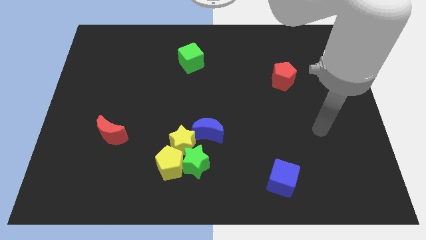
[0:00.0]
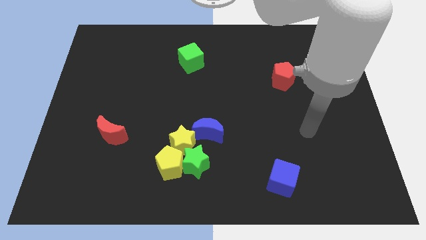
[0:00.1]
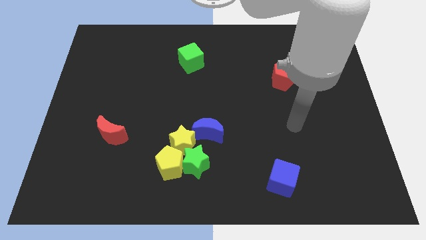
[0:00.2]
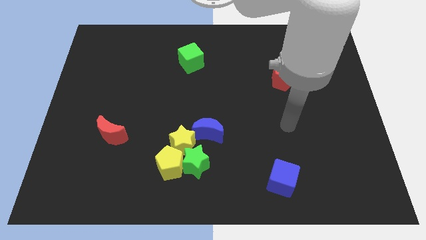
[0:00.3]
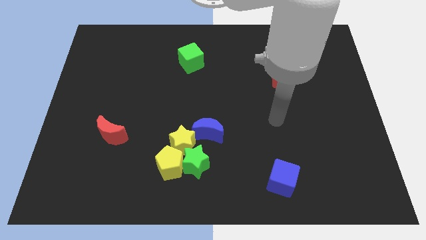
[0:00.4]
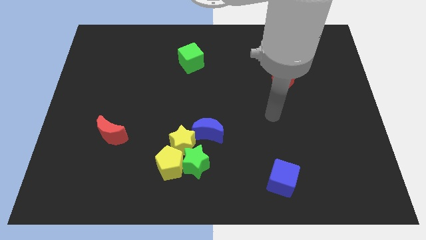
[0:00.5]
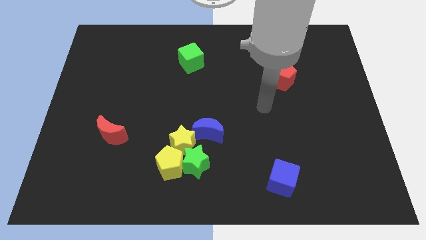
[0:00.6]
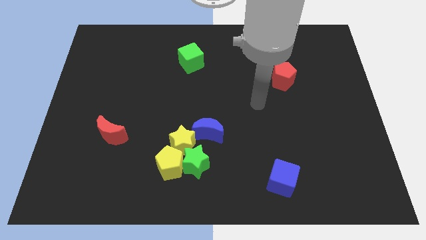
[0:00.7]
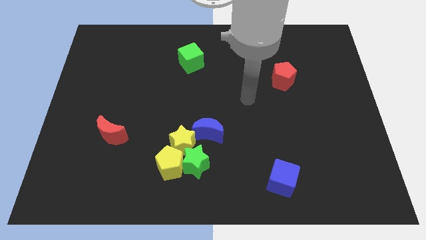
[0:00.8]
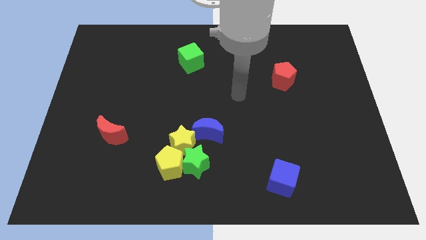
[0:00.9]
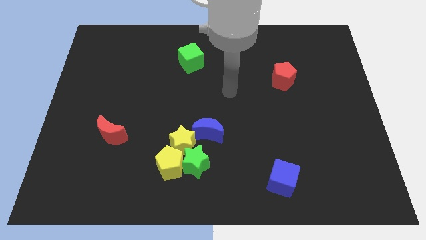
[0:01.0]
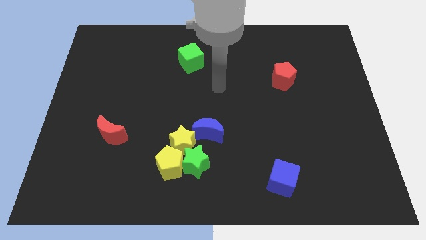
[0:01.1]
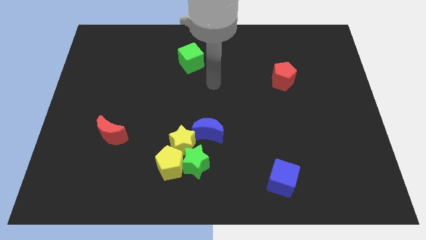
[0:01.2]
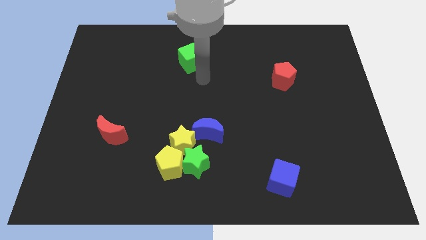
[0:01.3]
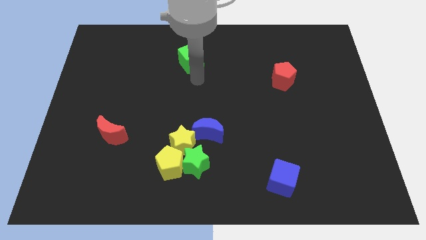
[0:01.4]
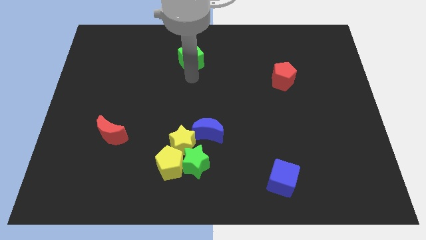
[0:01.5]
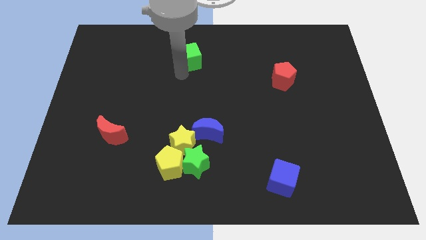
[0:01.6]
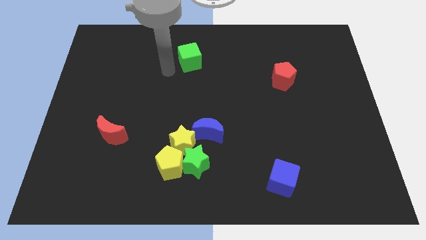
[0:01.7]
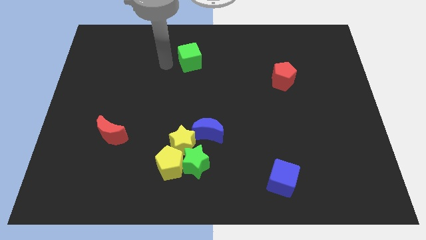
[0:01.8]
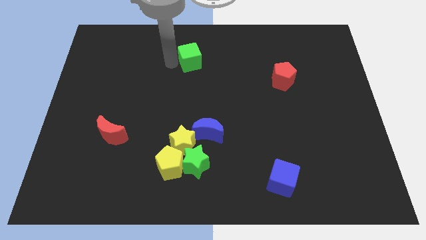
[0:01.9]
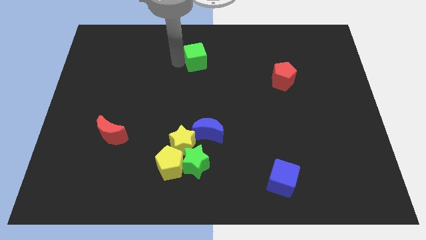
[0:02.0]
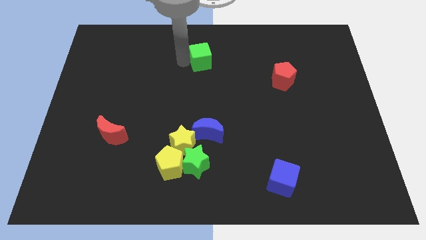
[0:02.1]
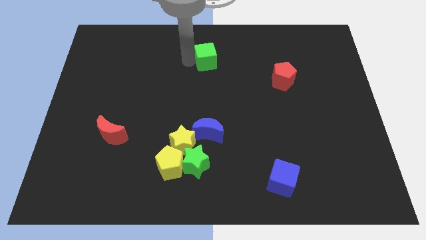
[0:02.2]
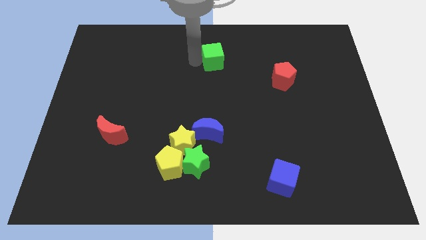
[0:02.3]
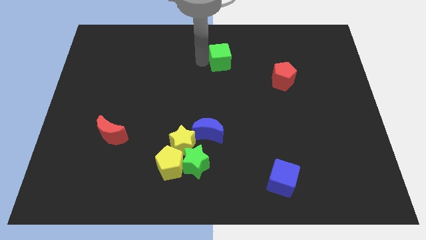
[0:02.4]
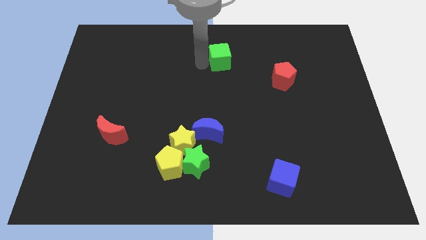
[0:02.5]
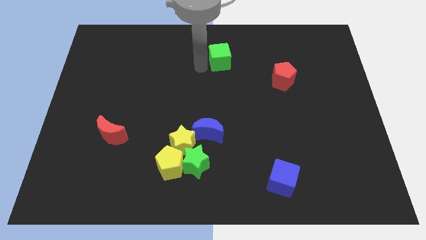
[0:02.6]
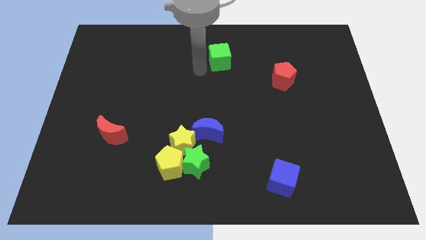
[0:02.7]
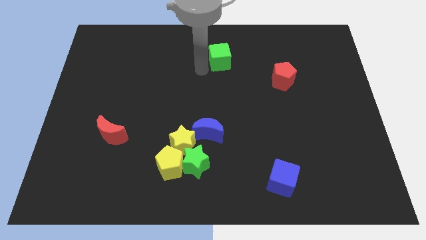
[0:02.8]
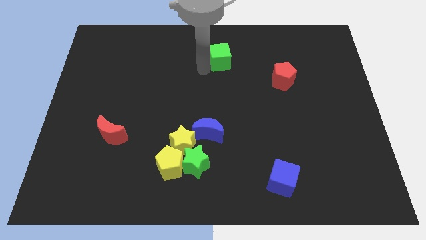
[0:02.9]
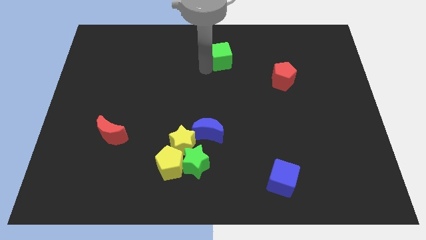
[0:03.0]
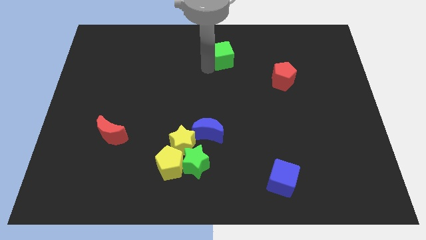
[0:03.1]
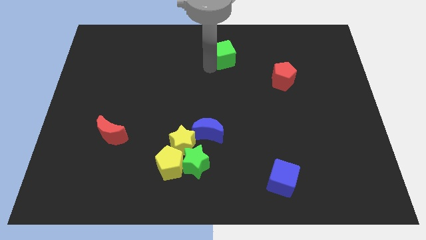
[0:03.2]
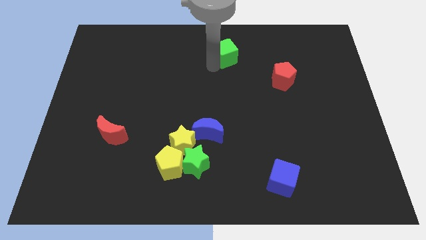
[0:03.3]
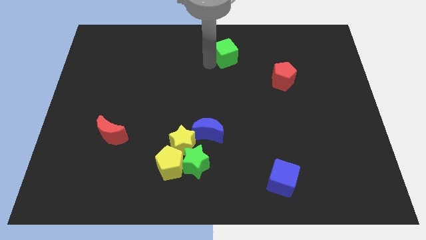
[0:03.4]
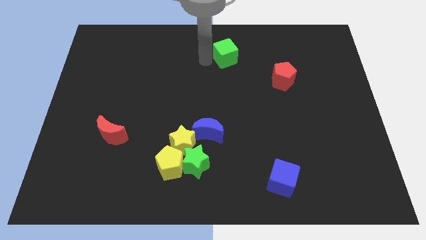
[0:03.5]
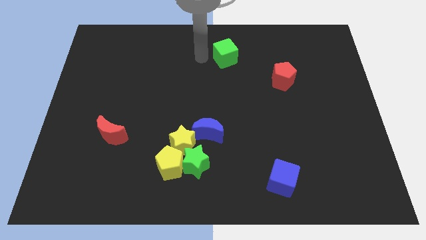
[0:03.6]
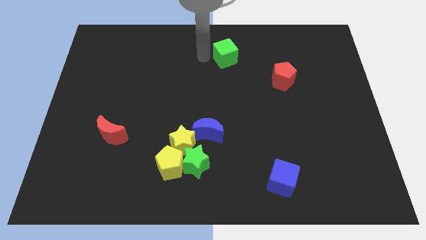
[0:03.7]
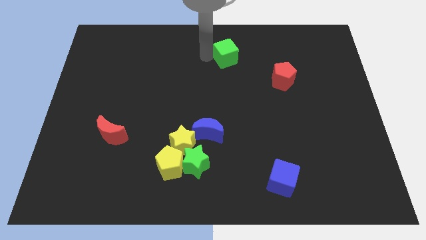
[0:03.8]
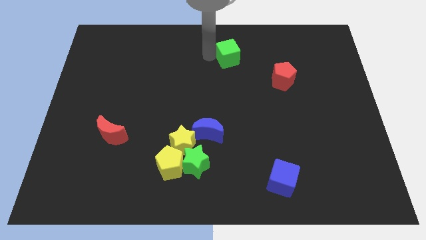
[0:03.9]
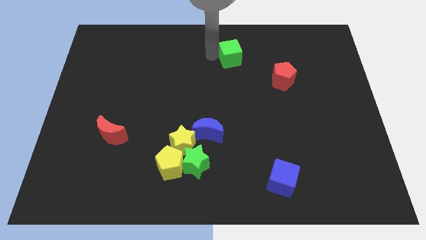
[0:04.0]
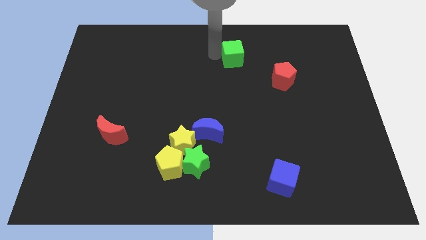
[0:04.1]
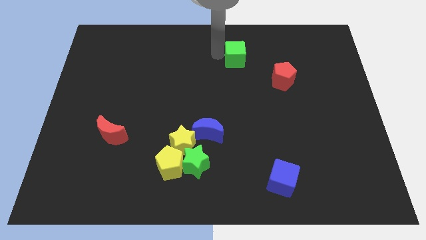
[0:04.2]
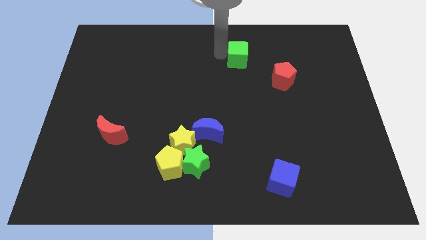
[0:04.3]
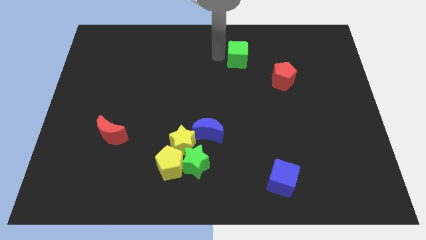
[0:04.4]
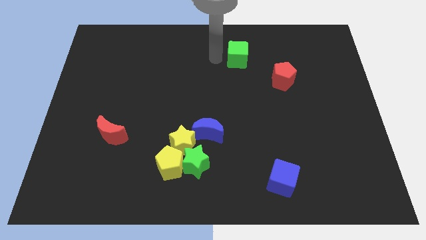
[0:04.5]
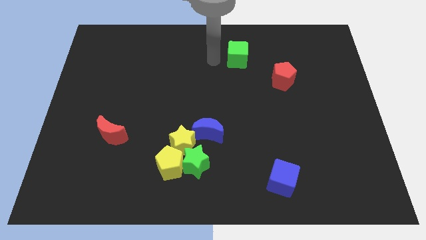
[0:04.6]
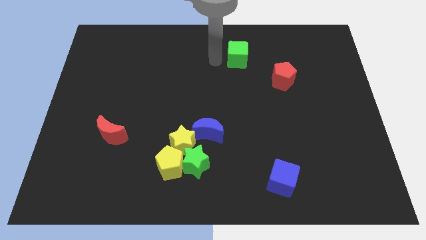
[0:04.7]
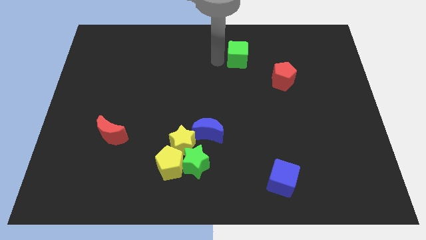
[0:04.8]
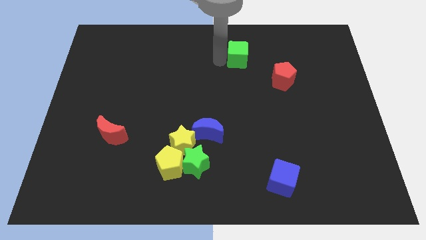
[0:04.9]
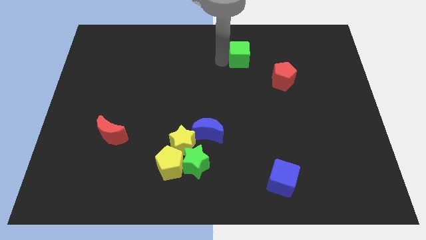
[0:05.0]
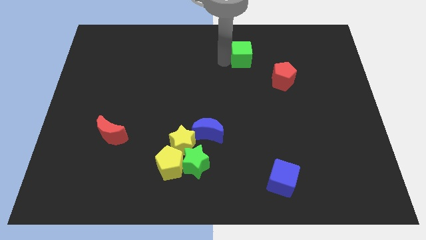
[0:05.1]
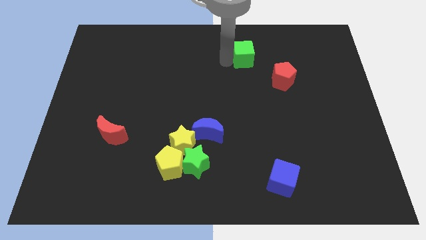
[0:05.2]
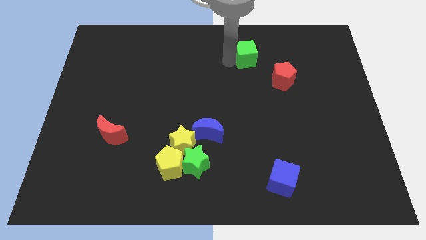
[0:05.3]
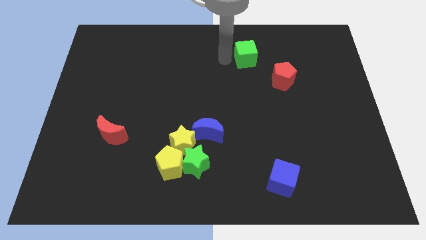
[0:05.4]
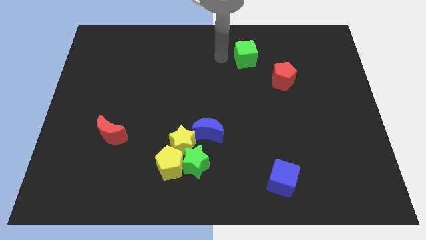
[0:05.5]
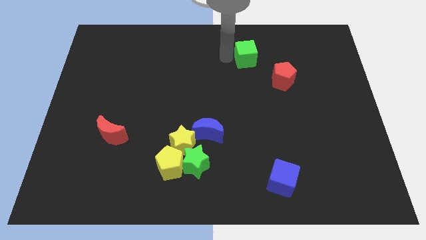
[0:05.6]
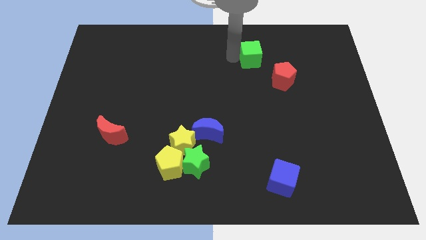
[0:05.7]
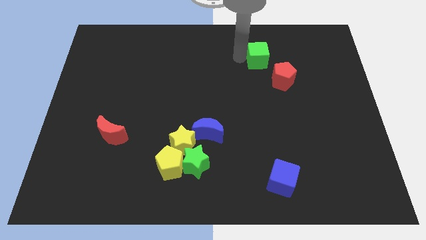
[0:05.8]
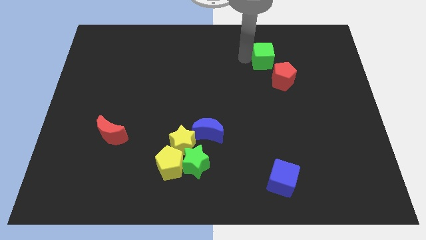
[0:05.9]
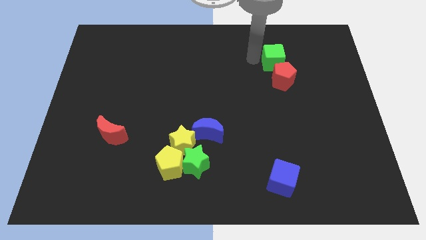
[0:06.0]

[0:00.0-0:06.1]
push the green cube to the right

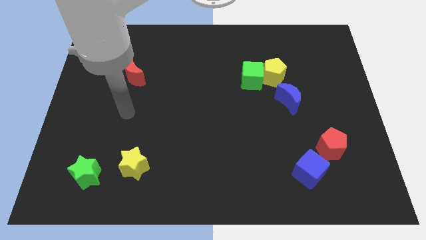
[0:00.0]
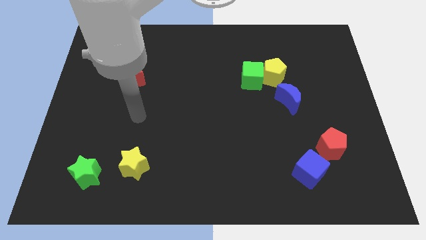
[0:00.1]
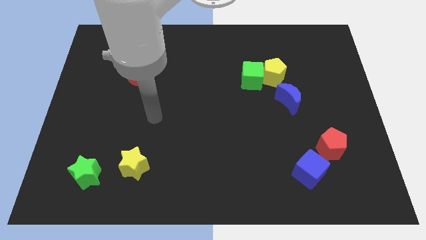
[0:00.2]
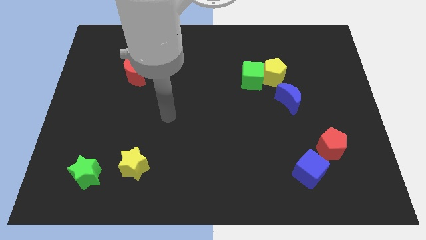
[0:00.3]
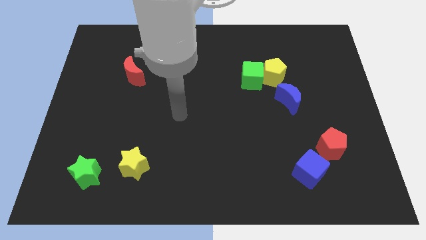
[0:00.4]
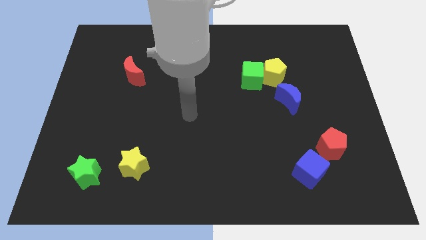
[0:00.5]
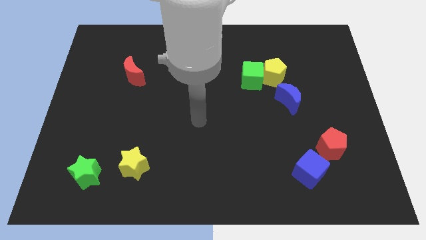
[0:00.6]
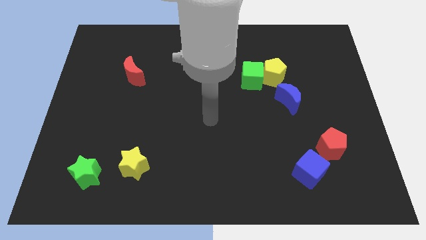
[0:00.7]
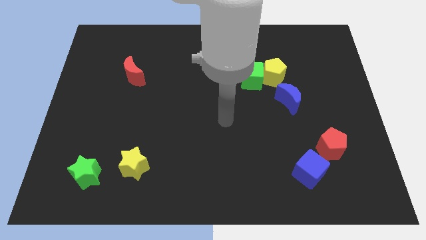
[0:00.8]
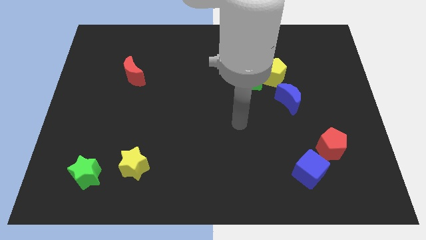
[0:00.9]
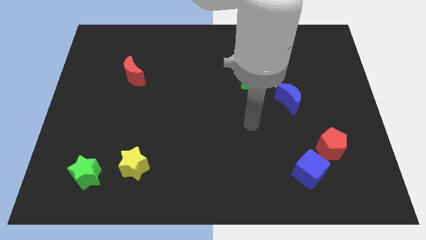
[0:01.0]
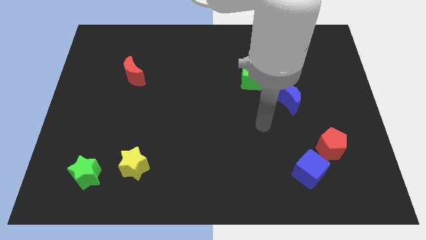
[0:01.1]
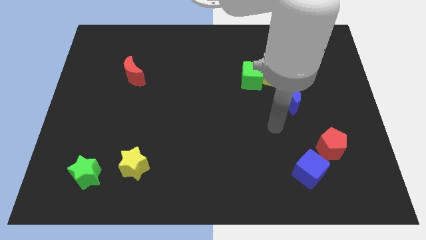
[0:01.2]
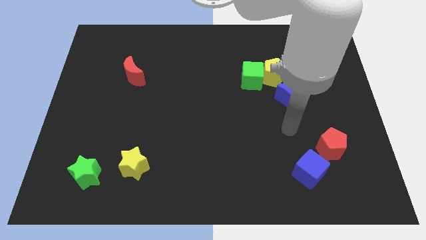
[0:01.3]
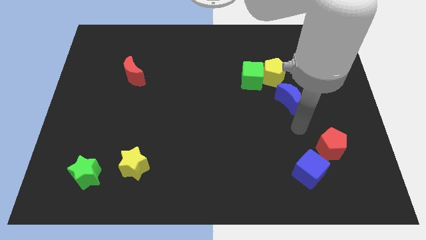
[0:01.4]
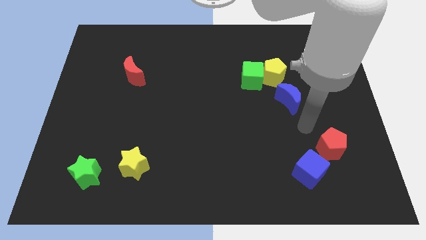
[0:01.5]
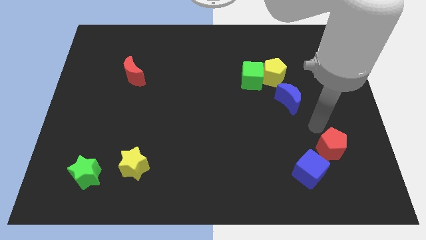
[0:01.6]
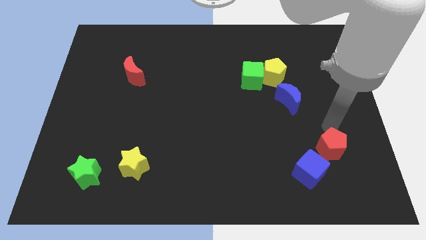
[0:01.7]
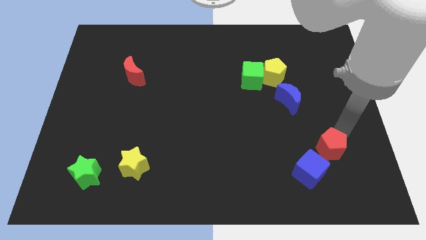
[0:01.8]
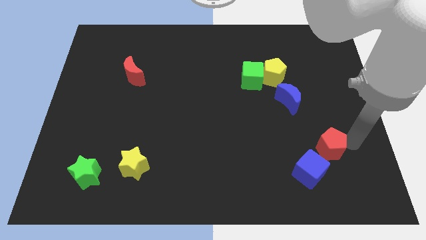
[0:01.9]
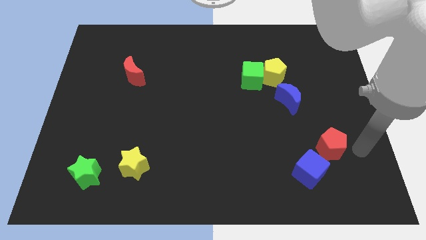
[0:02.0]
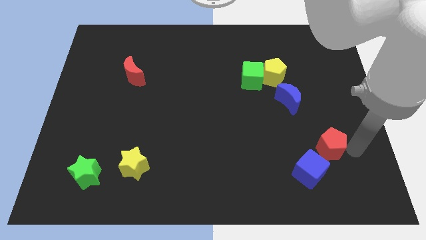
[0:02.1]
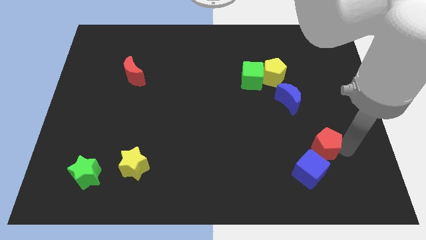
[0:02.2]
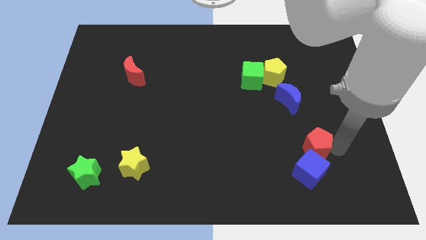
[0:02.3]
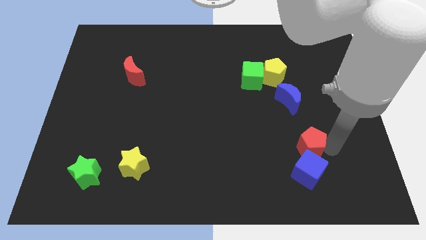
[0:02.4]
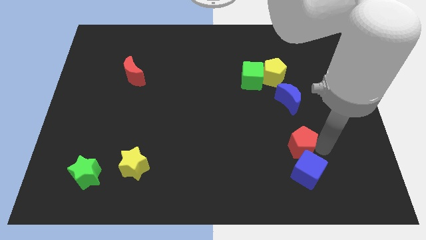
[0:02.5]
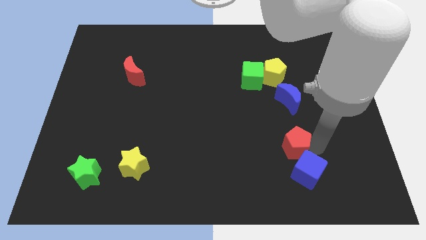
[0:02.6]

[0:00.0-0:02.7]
move the red pentagon to the left a bit
